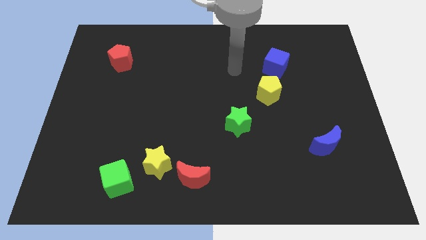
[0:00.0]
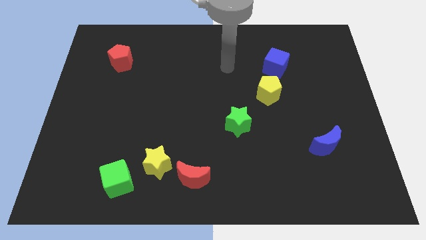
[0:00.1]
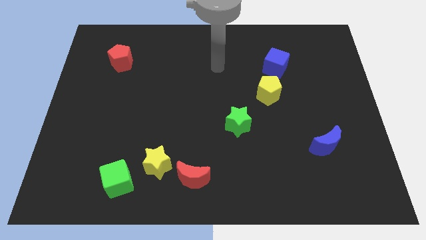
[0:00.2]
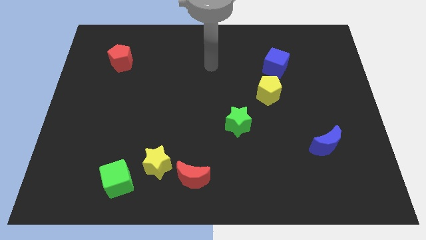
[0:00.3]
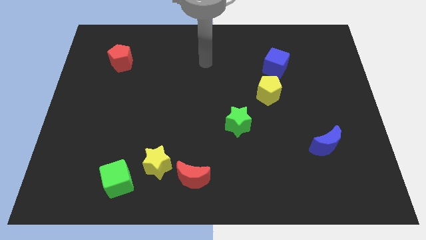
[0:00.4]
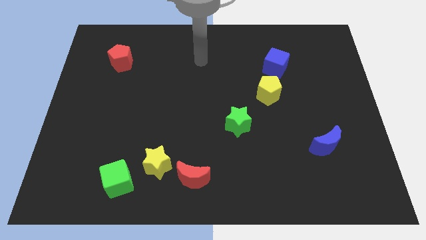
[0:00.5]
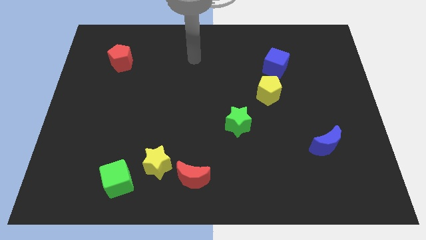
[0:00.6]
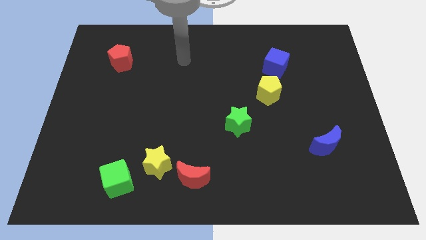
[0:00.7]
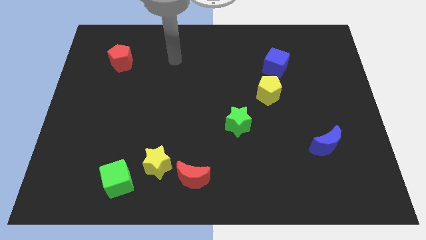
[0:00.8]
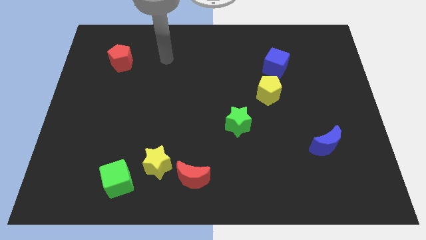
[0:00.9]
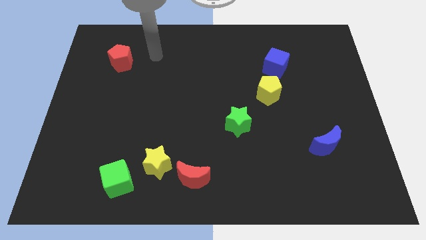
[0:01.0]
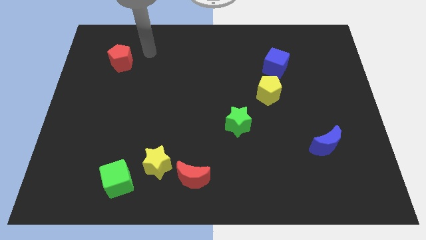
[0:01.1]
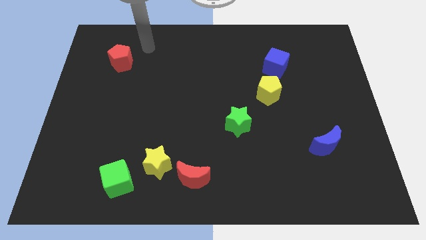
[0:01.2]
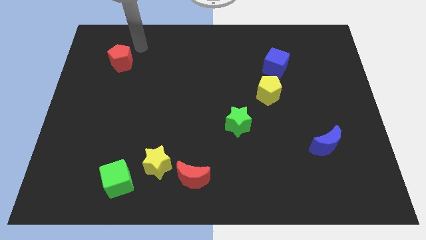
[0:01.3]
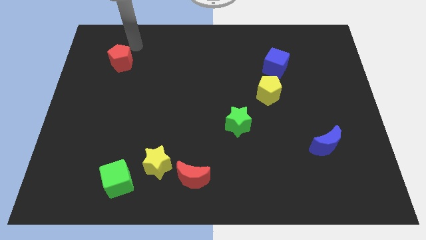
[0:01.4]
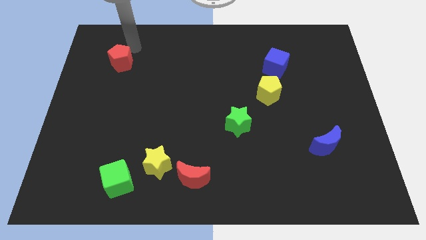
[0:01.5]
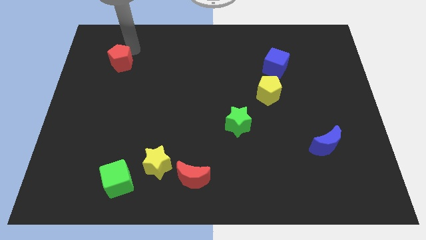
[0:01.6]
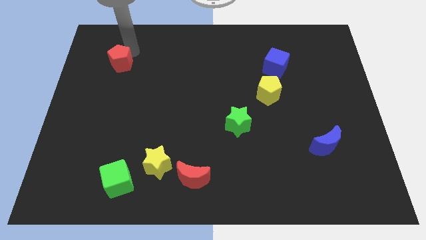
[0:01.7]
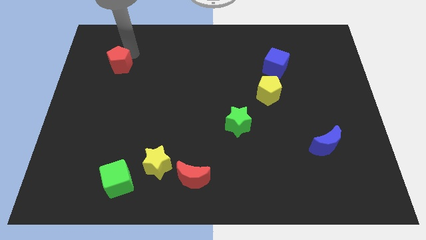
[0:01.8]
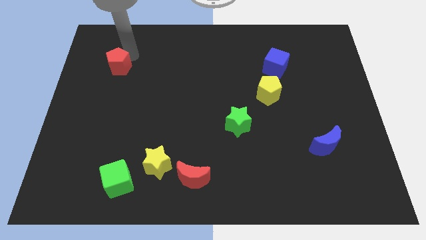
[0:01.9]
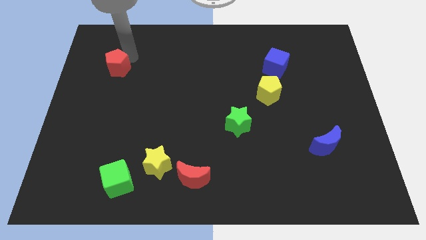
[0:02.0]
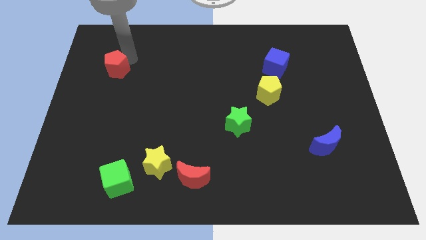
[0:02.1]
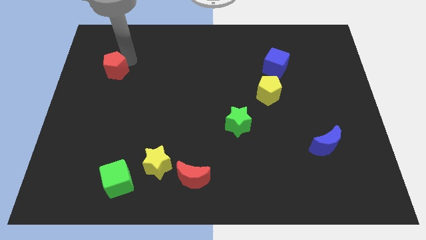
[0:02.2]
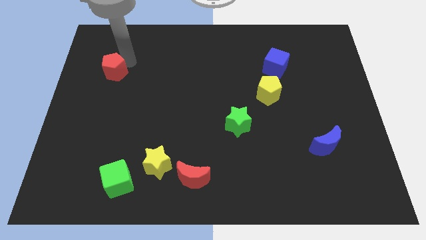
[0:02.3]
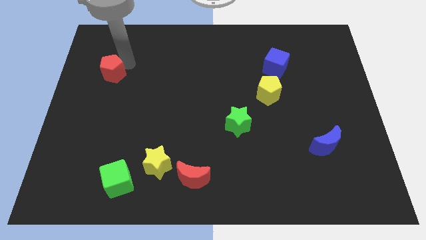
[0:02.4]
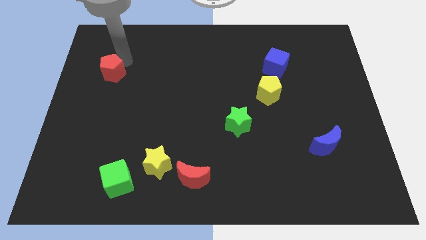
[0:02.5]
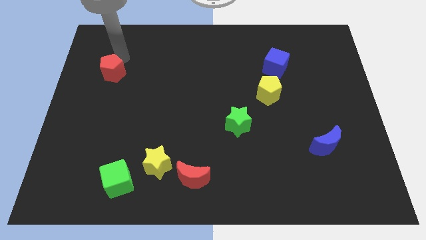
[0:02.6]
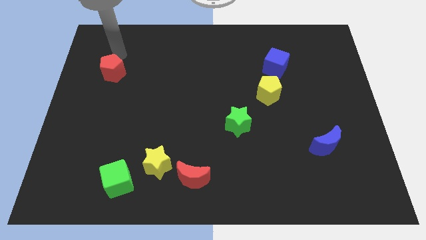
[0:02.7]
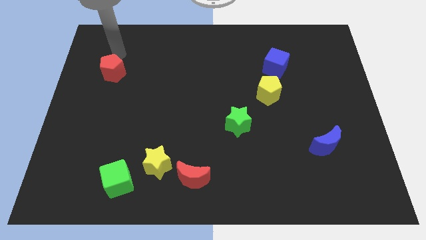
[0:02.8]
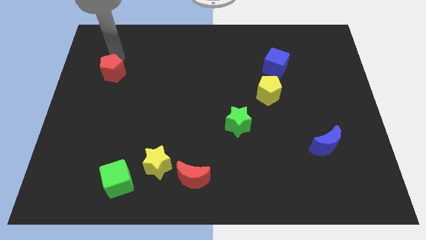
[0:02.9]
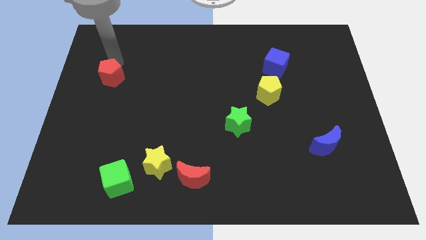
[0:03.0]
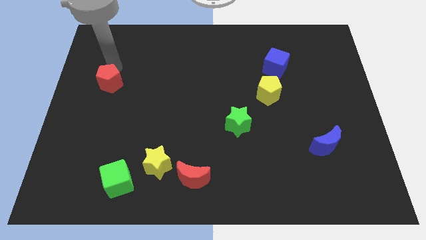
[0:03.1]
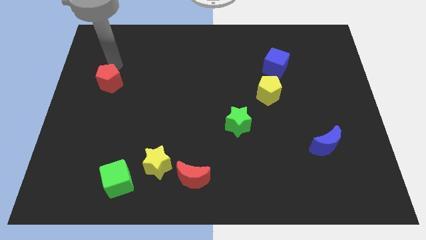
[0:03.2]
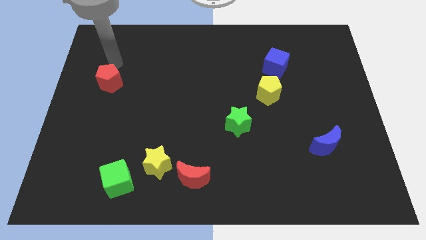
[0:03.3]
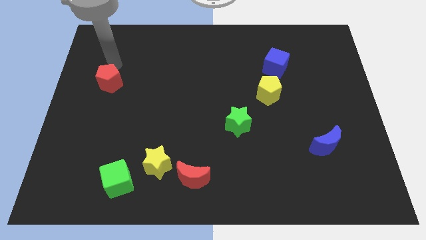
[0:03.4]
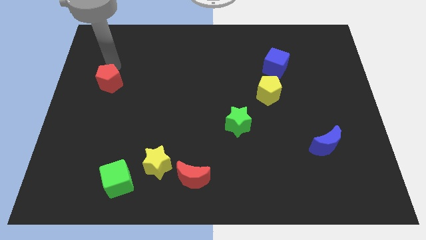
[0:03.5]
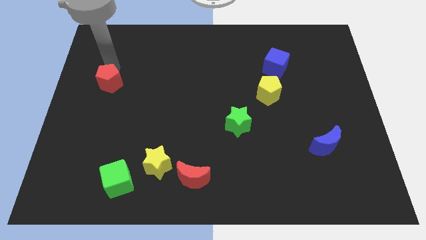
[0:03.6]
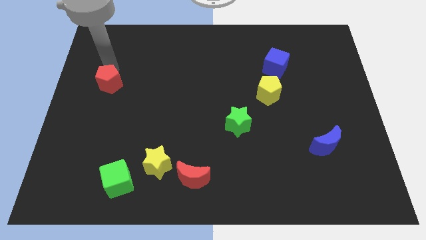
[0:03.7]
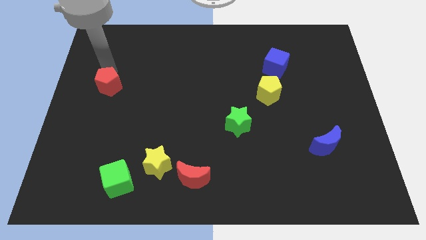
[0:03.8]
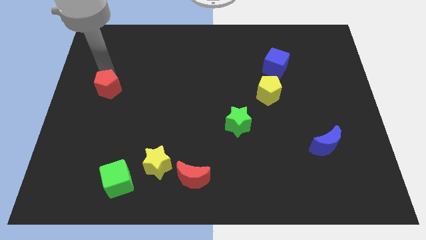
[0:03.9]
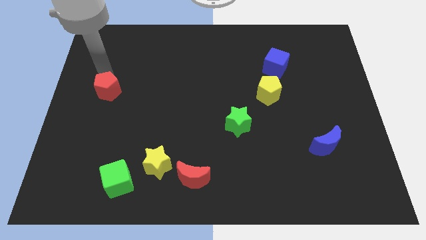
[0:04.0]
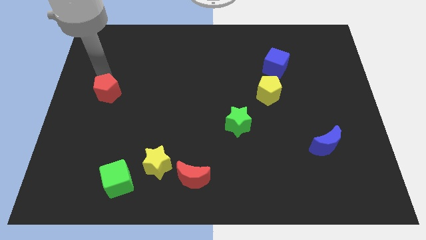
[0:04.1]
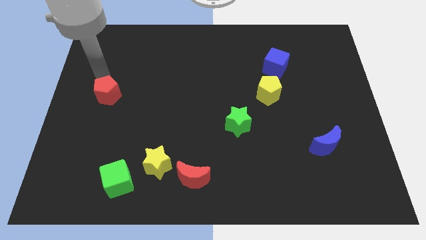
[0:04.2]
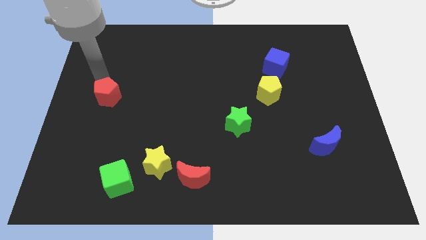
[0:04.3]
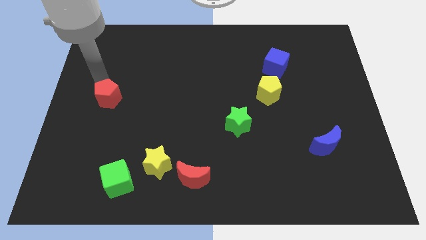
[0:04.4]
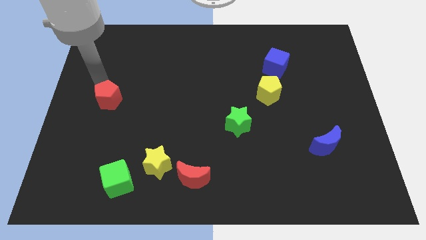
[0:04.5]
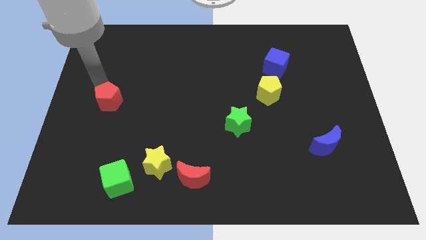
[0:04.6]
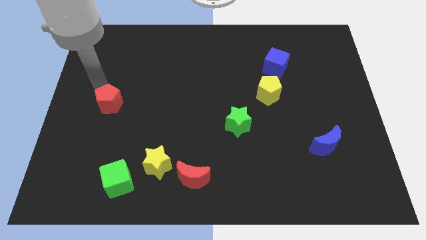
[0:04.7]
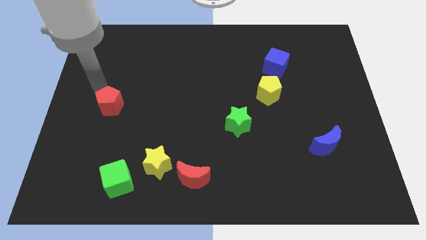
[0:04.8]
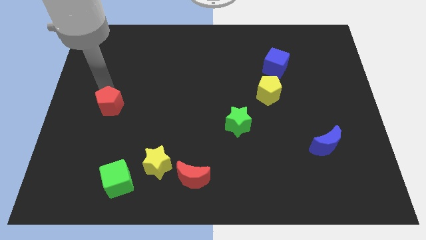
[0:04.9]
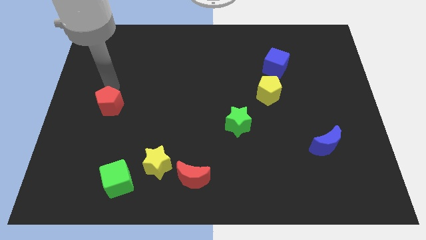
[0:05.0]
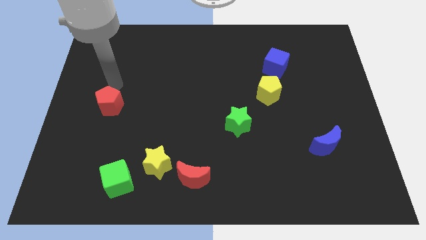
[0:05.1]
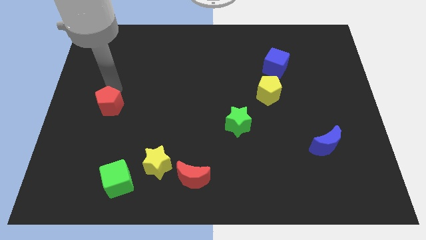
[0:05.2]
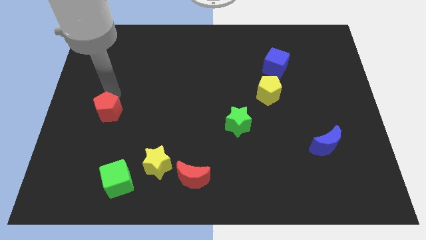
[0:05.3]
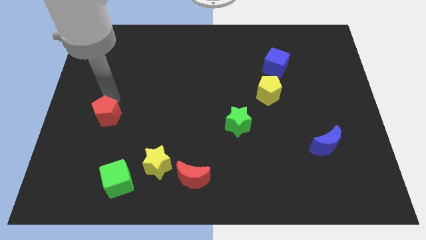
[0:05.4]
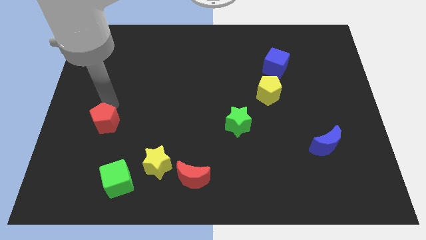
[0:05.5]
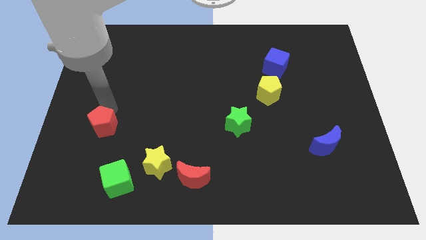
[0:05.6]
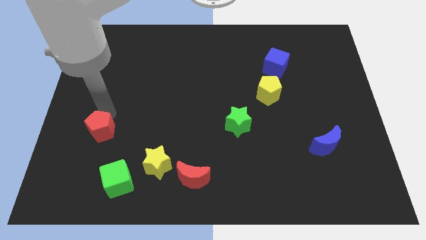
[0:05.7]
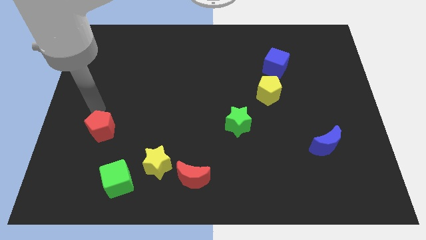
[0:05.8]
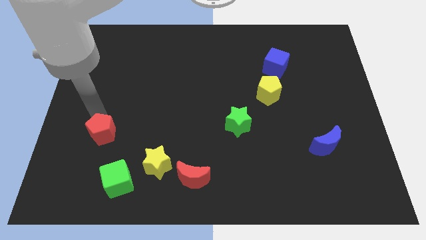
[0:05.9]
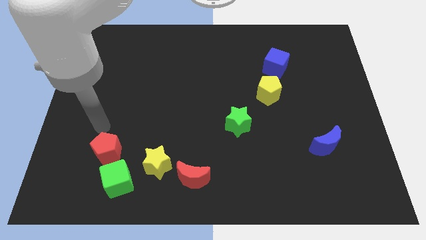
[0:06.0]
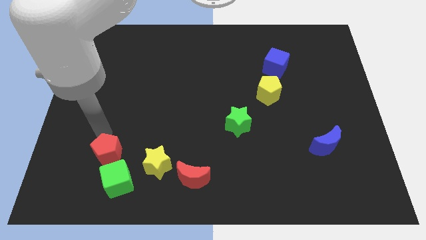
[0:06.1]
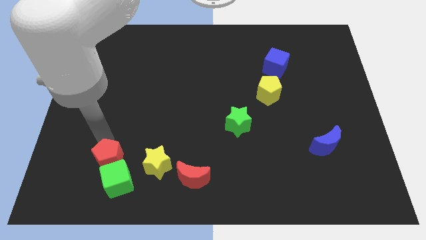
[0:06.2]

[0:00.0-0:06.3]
push the red pentagon close to the green cube

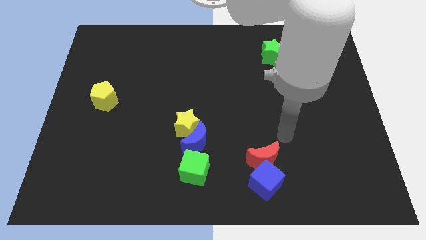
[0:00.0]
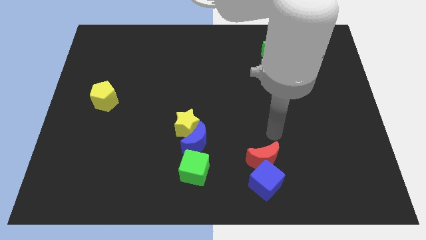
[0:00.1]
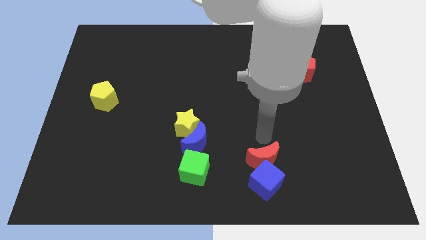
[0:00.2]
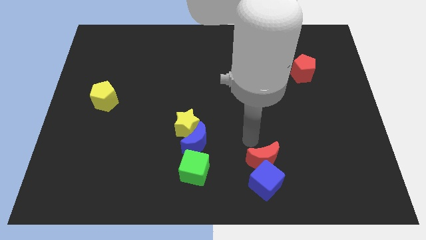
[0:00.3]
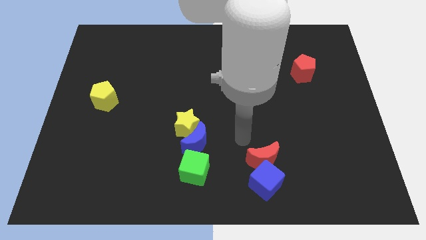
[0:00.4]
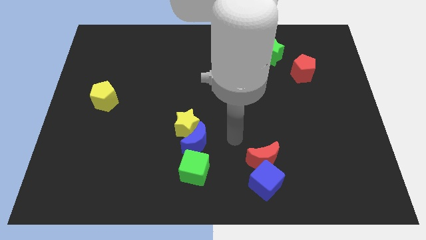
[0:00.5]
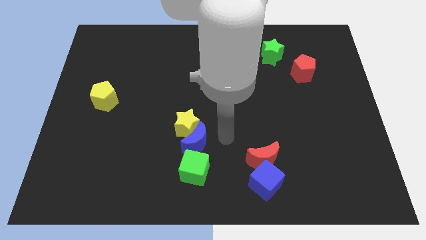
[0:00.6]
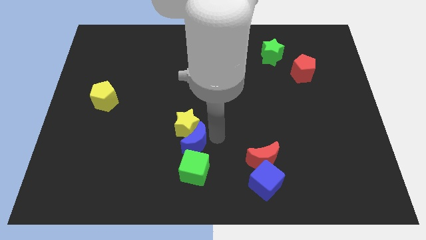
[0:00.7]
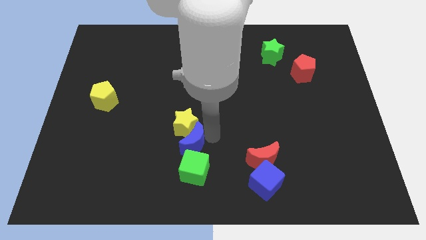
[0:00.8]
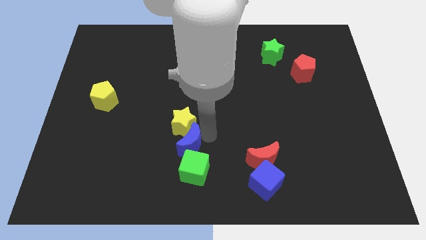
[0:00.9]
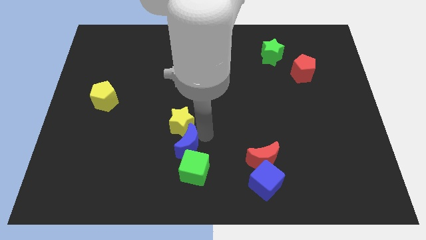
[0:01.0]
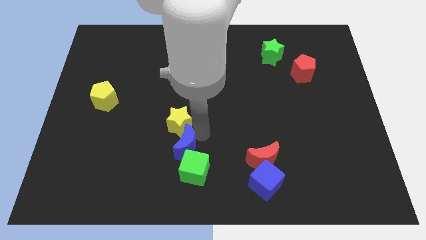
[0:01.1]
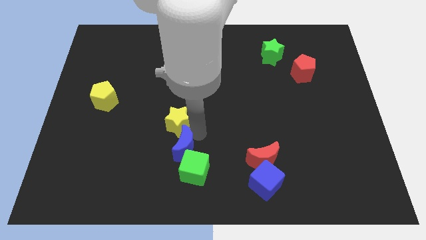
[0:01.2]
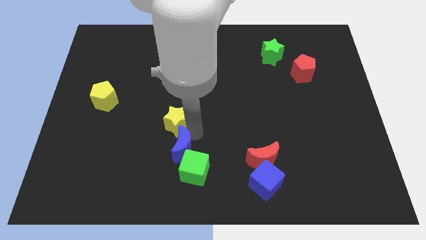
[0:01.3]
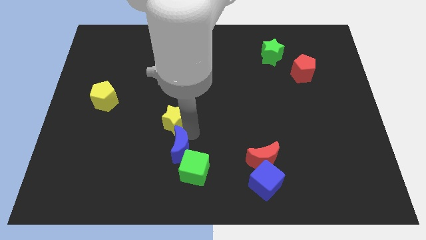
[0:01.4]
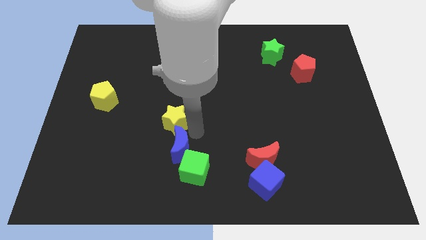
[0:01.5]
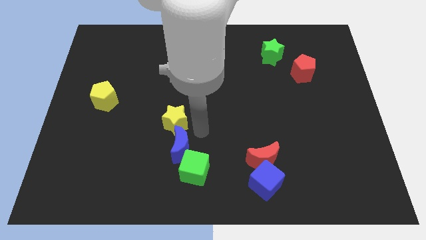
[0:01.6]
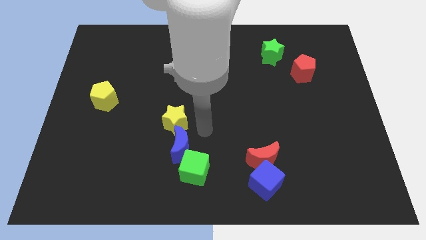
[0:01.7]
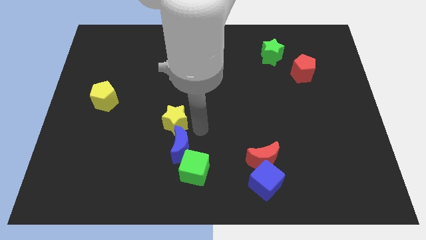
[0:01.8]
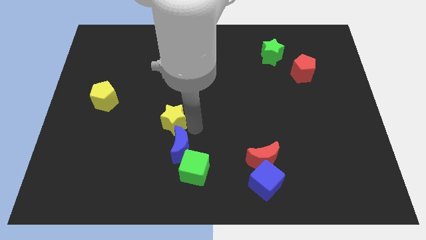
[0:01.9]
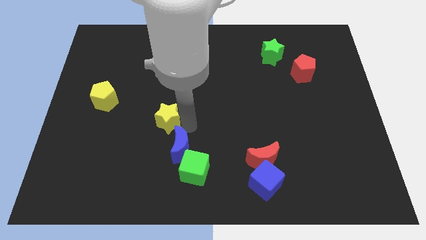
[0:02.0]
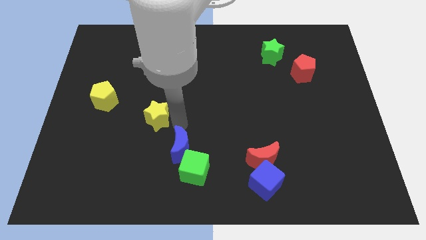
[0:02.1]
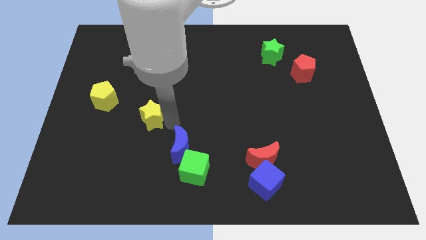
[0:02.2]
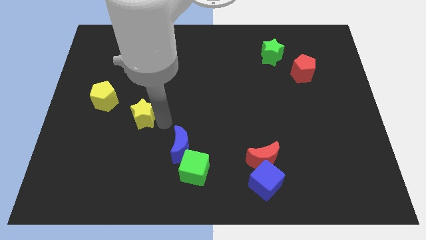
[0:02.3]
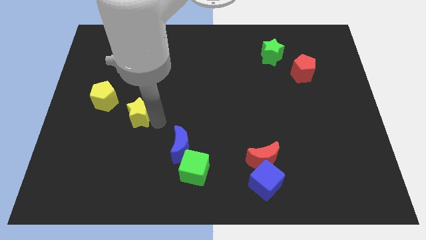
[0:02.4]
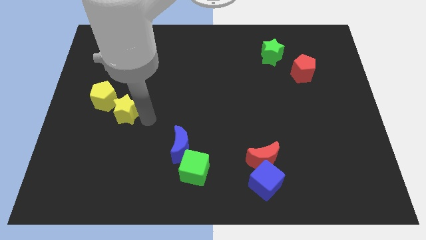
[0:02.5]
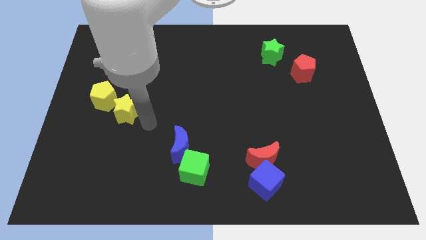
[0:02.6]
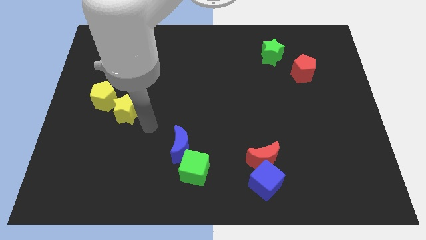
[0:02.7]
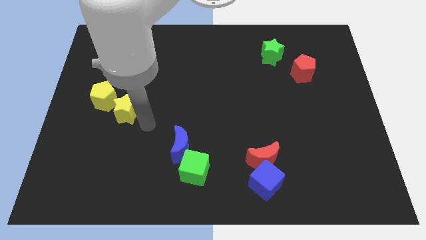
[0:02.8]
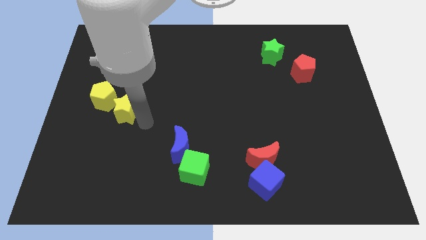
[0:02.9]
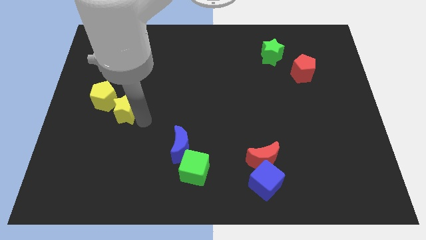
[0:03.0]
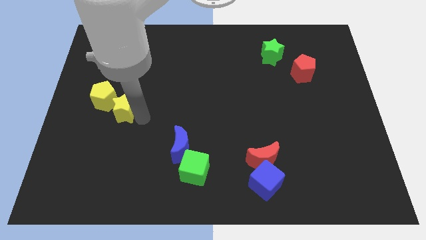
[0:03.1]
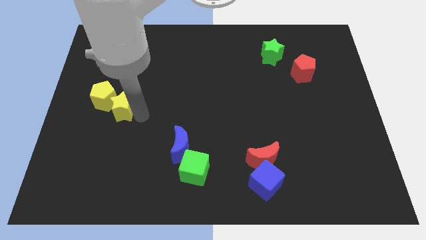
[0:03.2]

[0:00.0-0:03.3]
put the yellow star to the yellow pentagon
